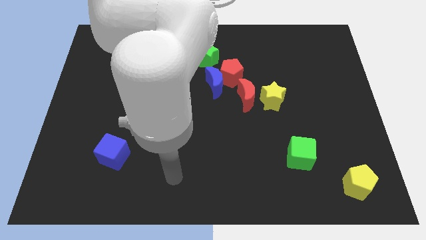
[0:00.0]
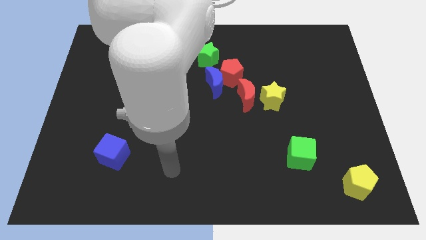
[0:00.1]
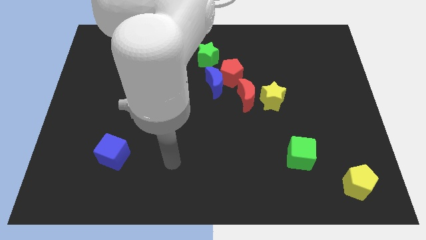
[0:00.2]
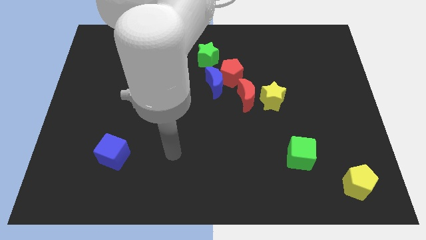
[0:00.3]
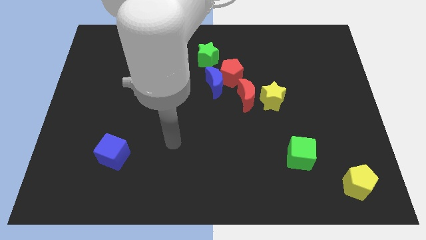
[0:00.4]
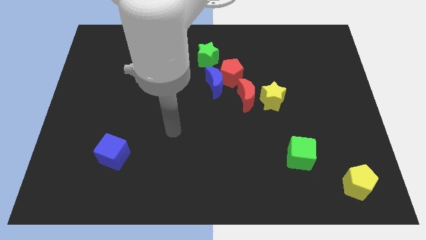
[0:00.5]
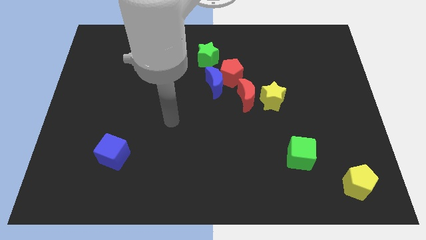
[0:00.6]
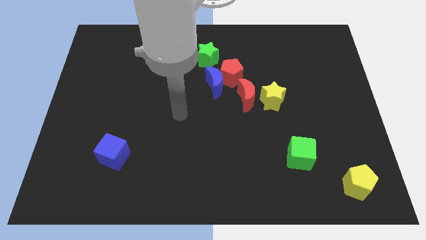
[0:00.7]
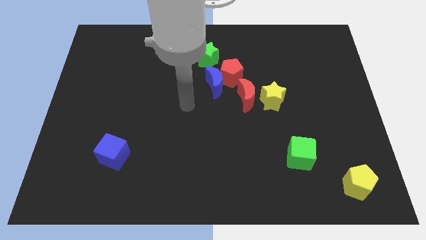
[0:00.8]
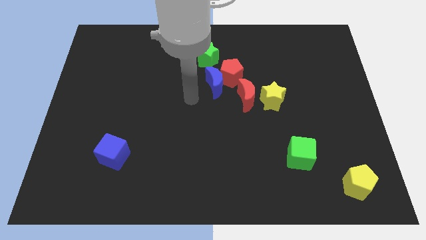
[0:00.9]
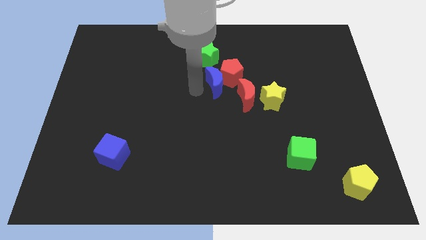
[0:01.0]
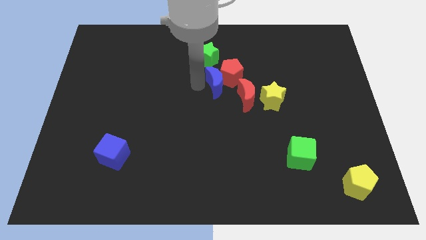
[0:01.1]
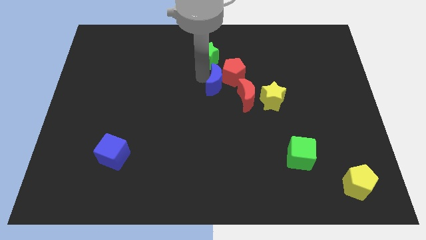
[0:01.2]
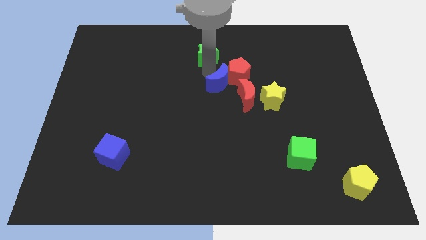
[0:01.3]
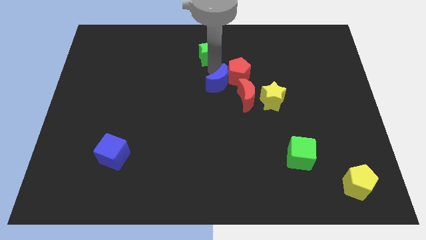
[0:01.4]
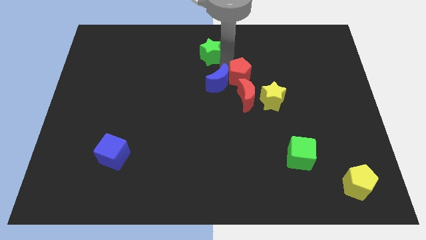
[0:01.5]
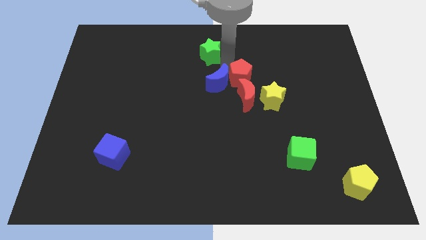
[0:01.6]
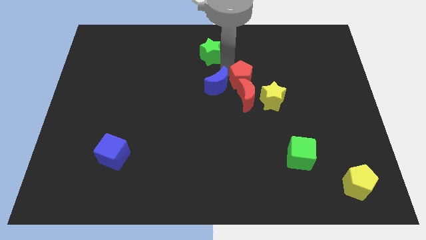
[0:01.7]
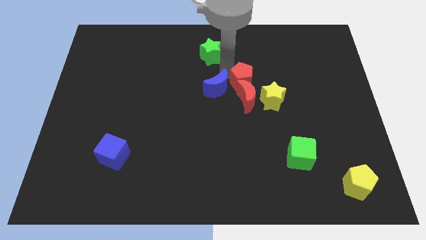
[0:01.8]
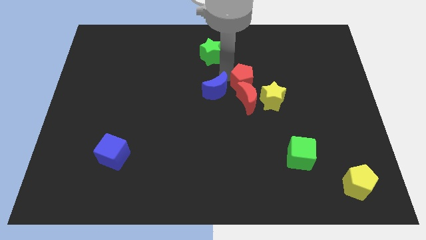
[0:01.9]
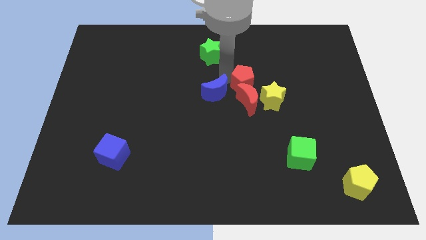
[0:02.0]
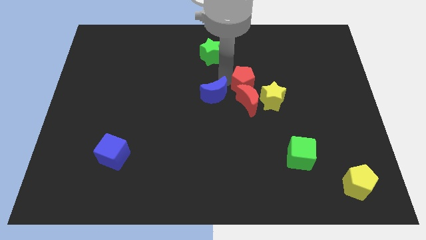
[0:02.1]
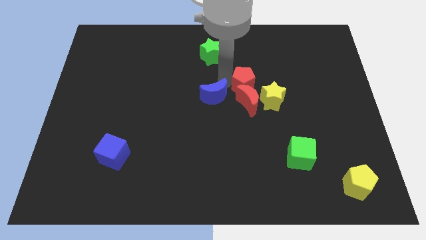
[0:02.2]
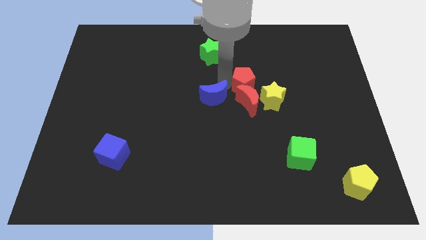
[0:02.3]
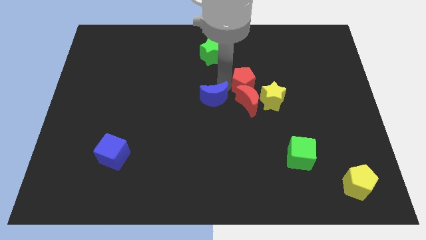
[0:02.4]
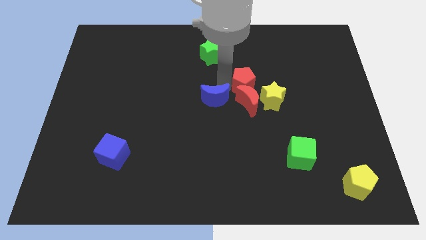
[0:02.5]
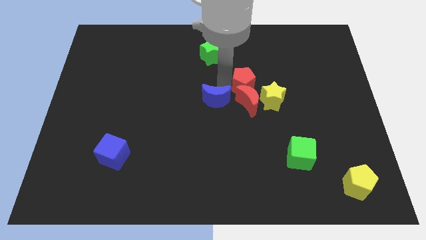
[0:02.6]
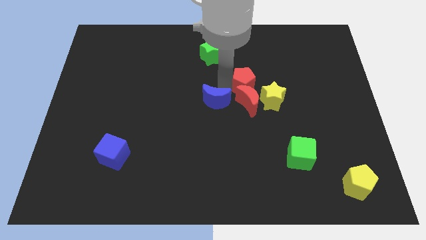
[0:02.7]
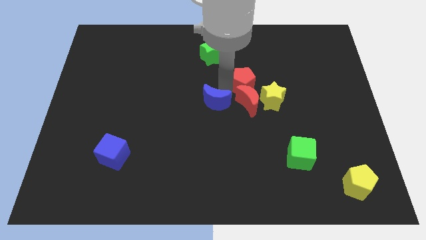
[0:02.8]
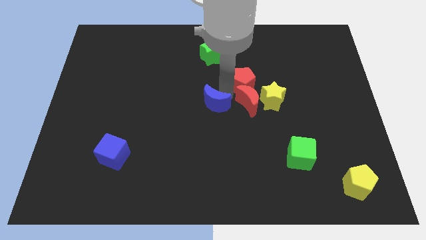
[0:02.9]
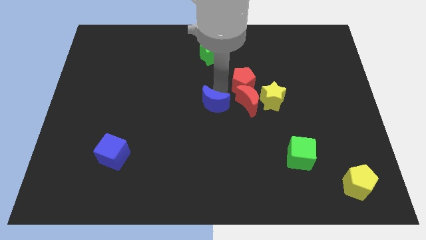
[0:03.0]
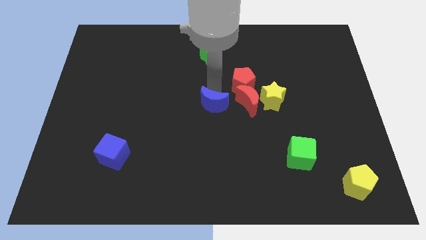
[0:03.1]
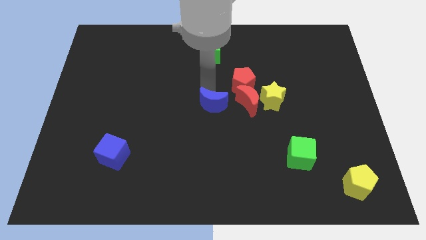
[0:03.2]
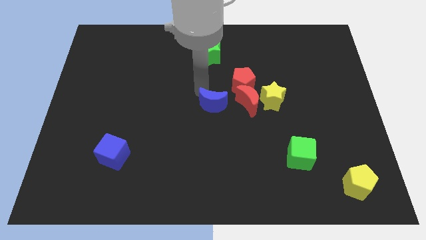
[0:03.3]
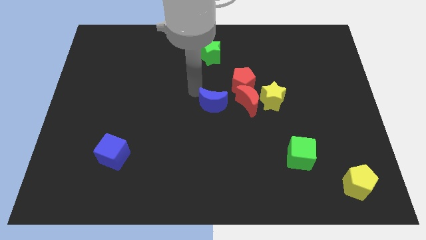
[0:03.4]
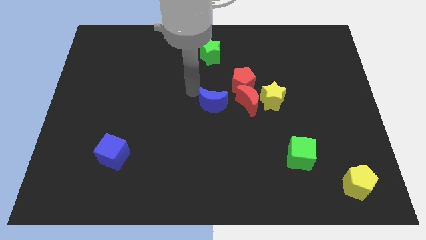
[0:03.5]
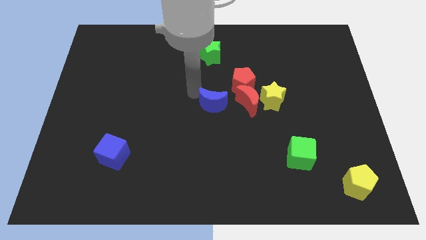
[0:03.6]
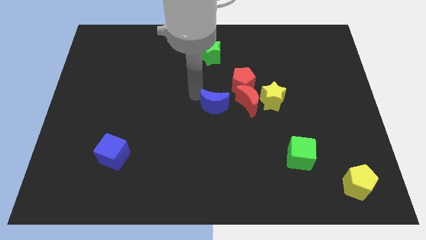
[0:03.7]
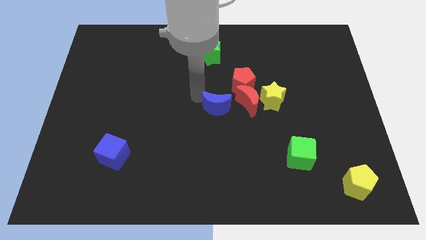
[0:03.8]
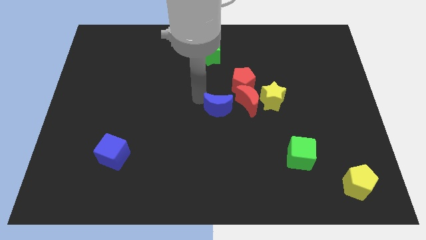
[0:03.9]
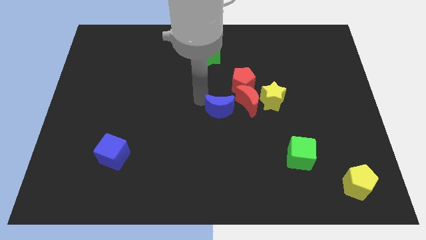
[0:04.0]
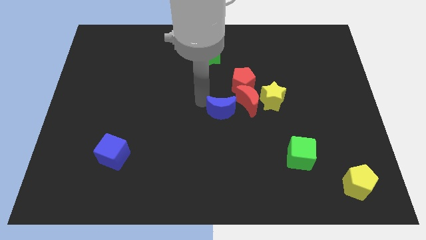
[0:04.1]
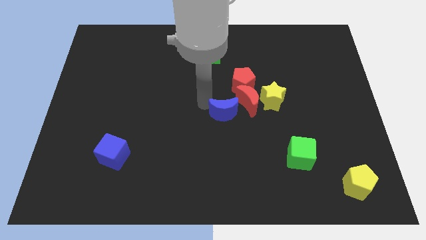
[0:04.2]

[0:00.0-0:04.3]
push the blue moon diagonally downwards and right a bit

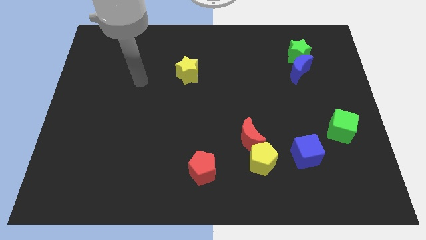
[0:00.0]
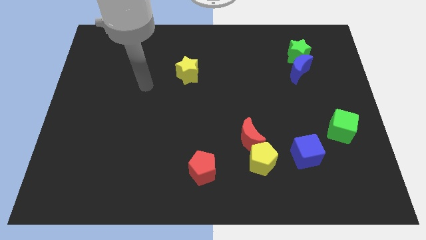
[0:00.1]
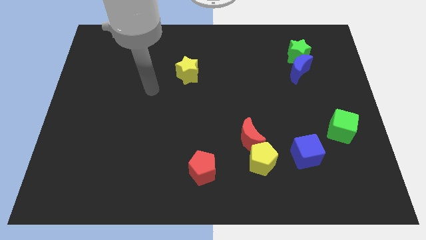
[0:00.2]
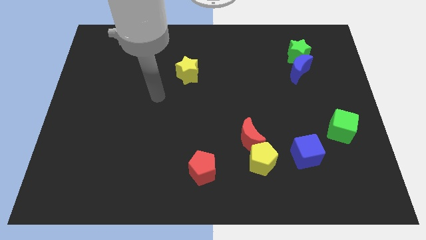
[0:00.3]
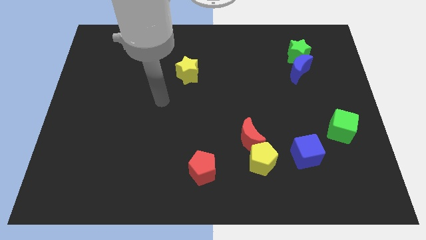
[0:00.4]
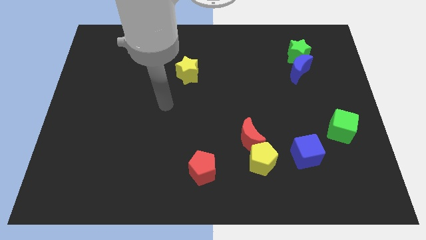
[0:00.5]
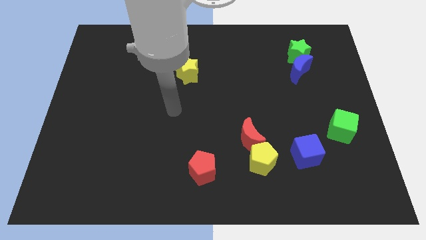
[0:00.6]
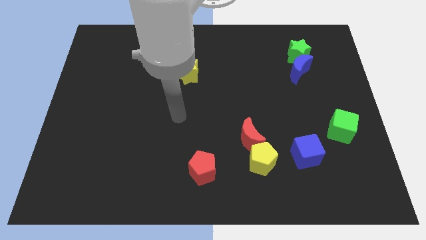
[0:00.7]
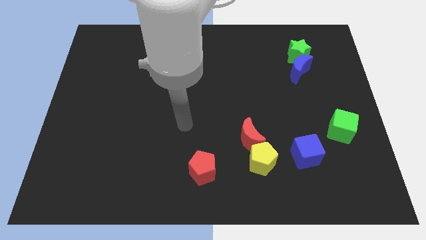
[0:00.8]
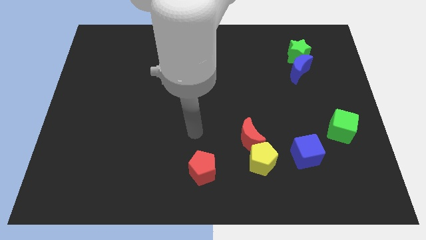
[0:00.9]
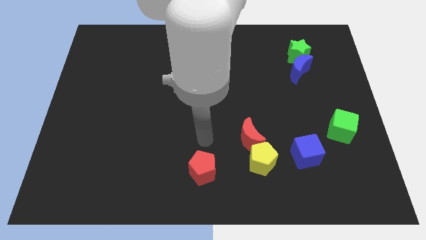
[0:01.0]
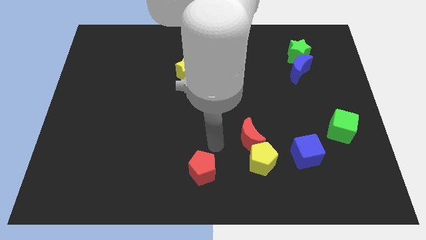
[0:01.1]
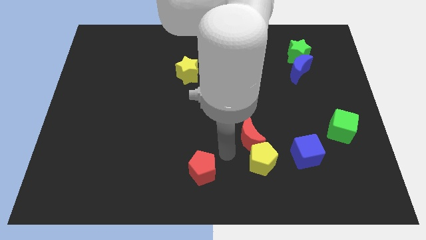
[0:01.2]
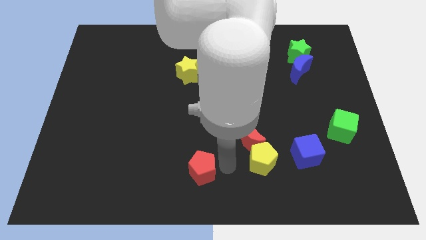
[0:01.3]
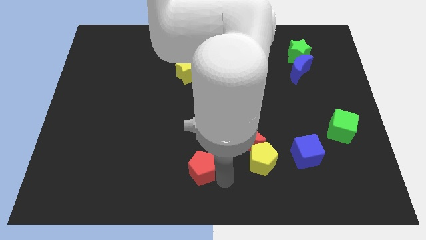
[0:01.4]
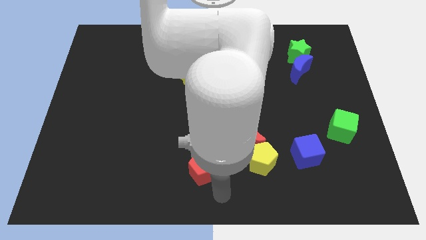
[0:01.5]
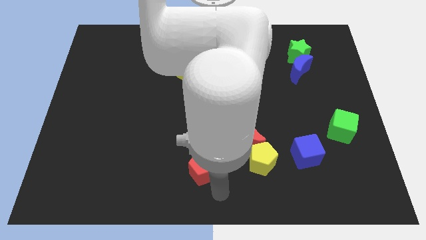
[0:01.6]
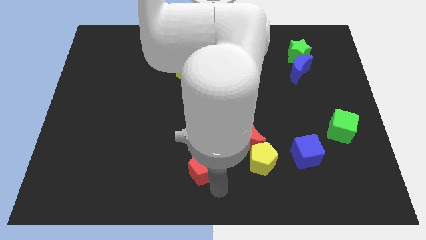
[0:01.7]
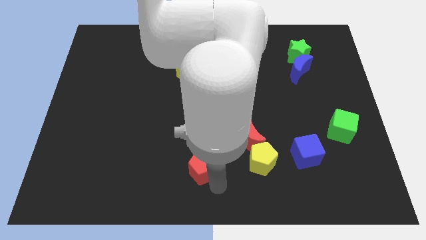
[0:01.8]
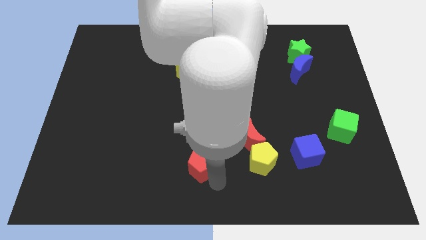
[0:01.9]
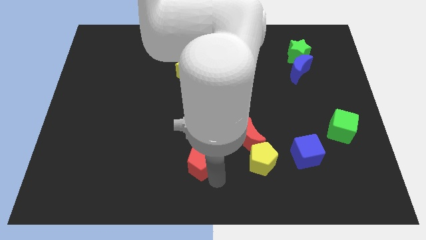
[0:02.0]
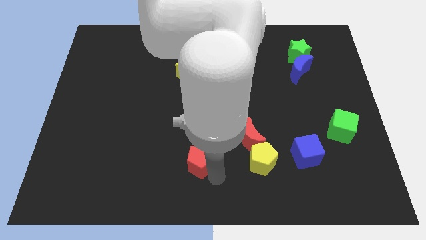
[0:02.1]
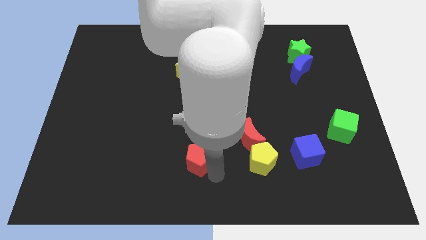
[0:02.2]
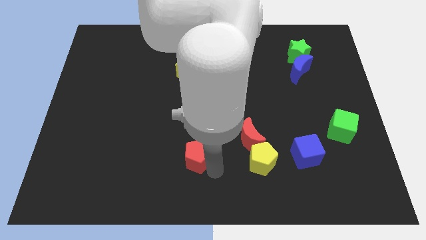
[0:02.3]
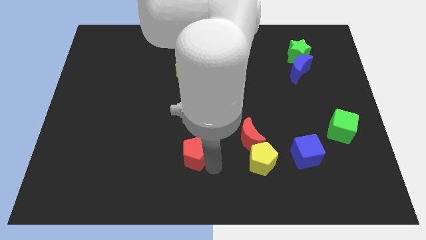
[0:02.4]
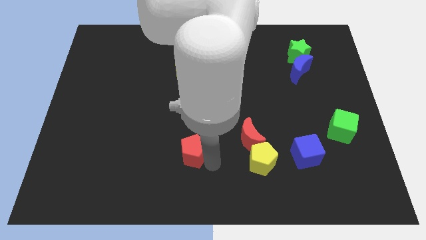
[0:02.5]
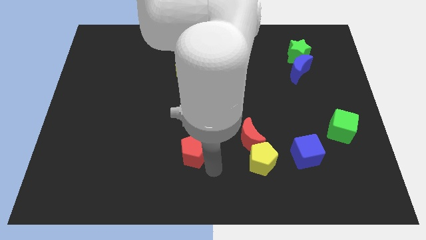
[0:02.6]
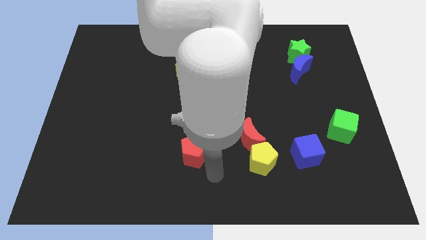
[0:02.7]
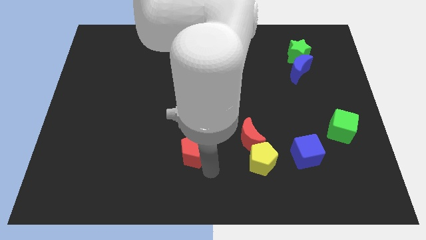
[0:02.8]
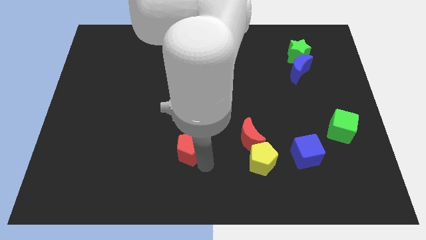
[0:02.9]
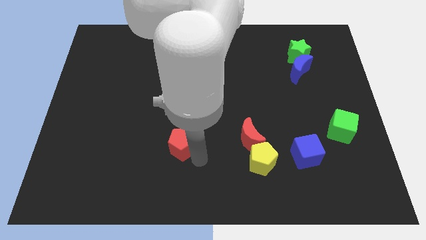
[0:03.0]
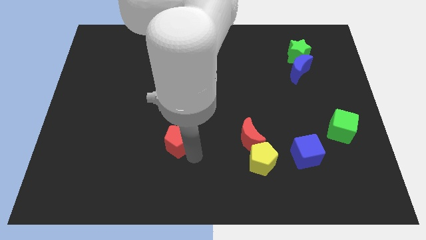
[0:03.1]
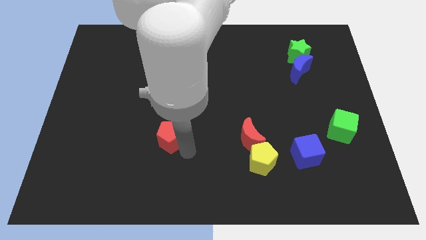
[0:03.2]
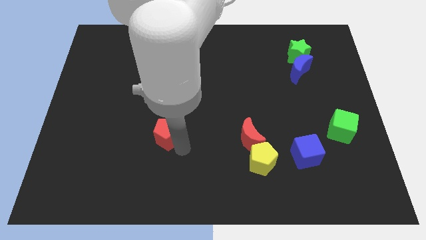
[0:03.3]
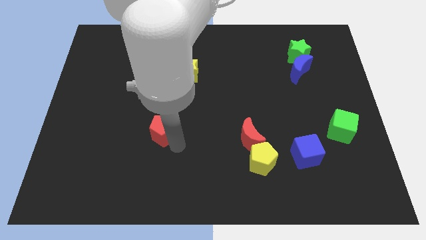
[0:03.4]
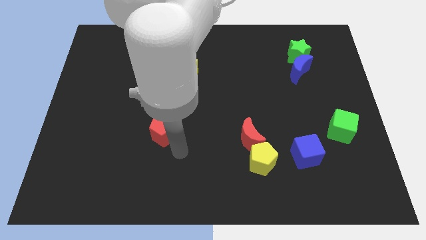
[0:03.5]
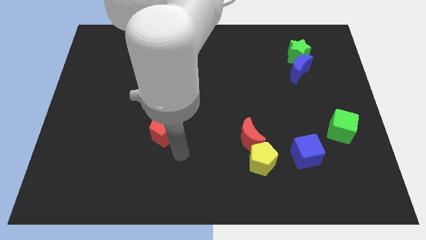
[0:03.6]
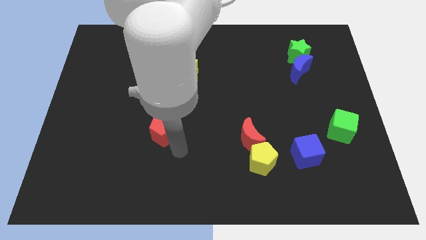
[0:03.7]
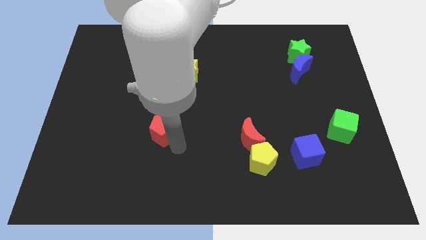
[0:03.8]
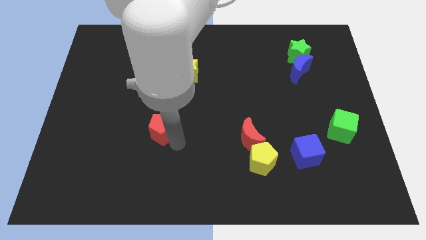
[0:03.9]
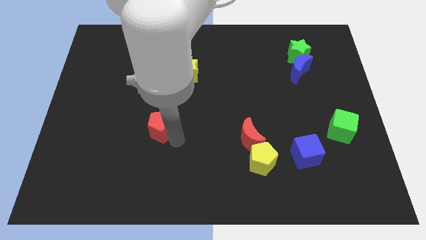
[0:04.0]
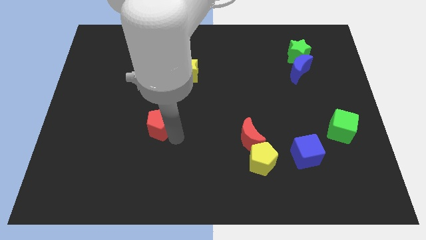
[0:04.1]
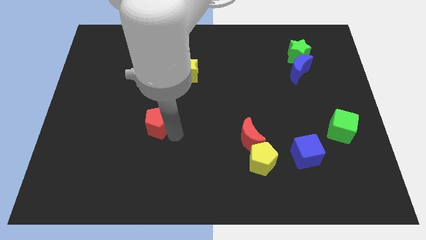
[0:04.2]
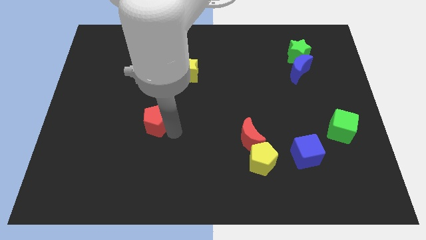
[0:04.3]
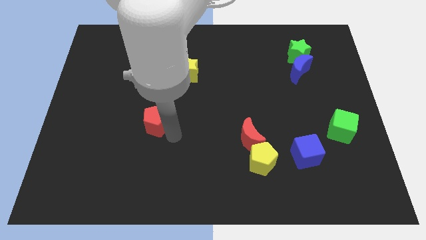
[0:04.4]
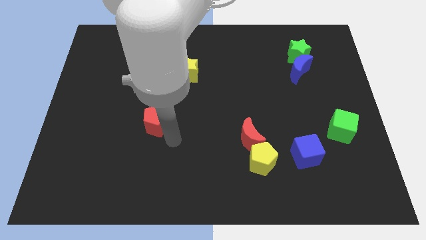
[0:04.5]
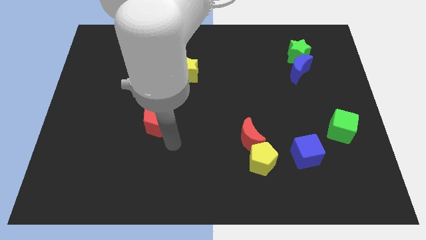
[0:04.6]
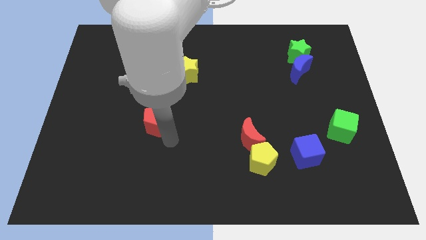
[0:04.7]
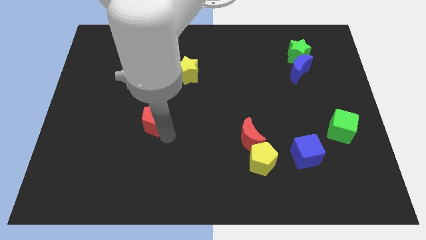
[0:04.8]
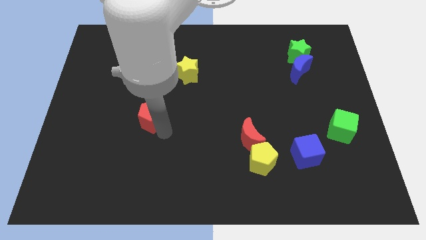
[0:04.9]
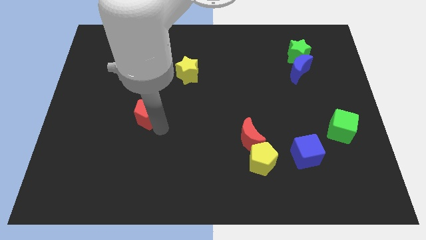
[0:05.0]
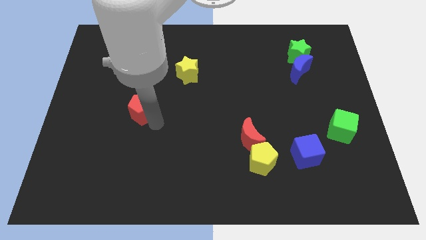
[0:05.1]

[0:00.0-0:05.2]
slide the red pentagon up and then left
